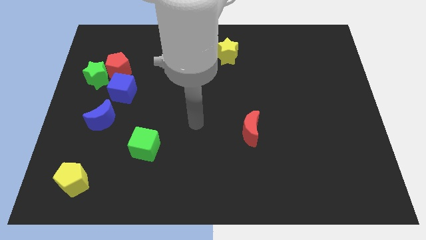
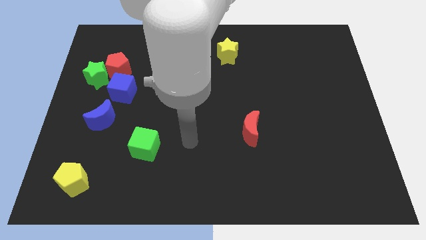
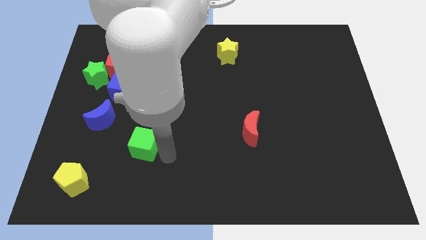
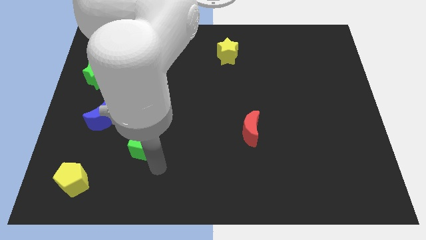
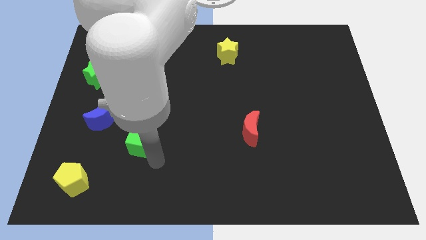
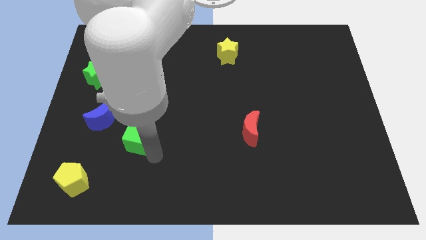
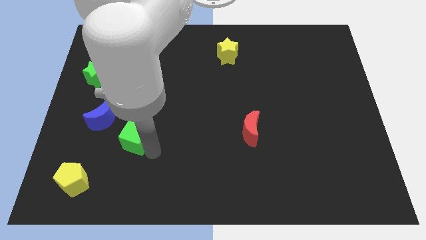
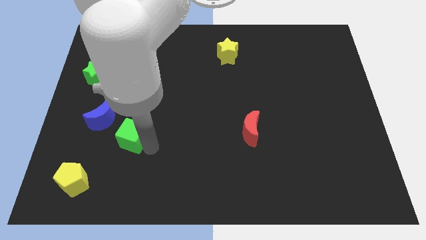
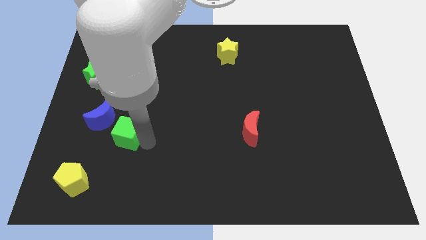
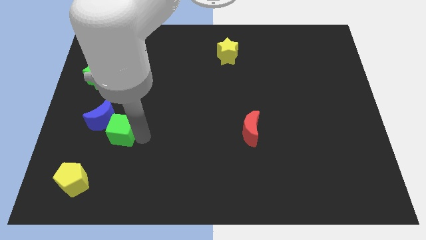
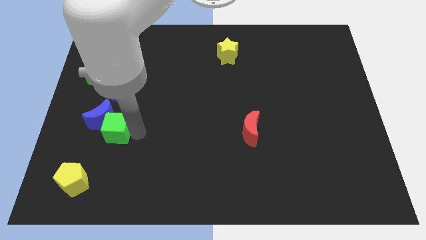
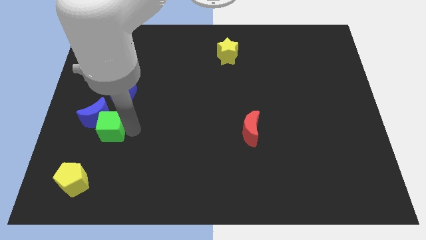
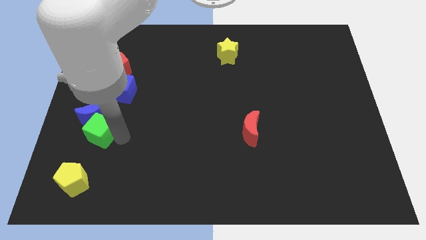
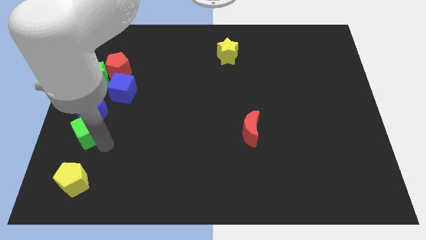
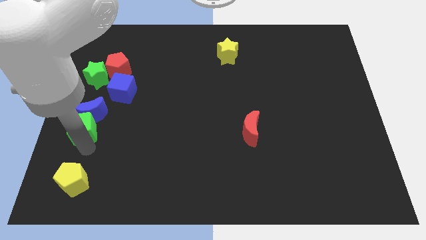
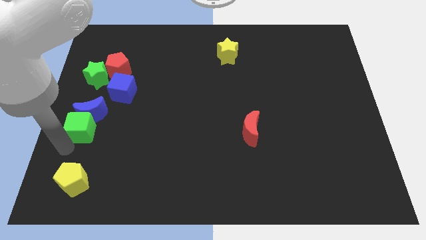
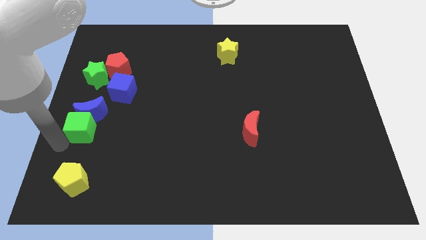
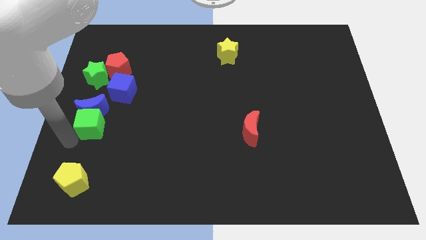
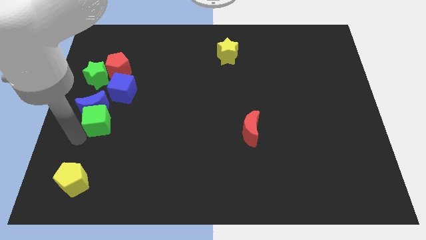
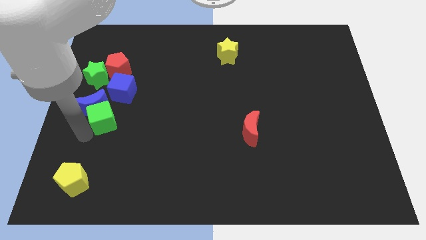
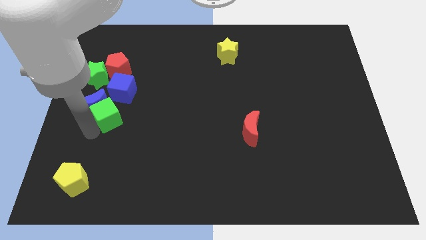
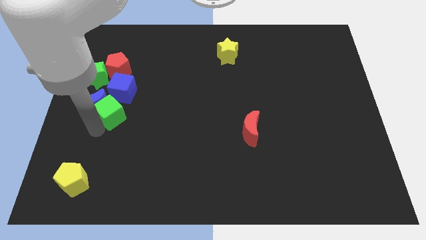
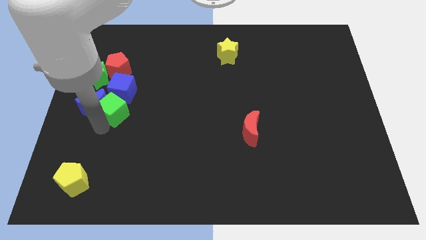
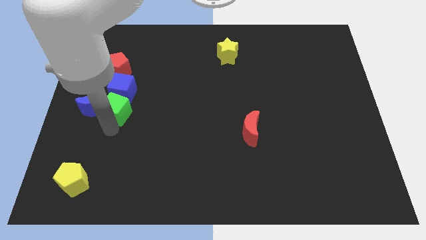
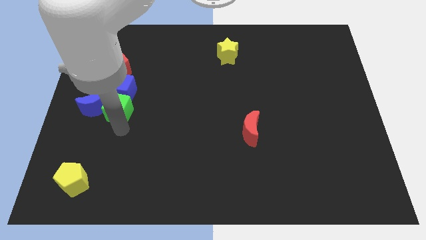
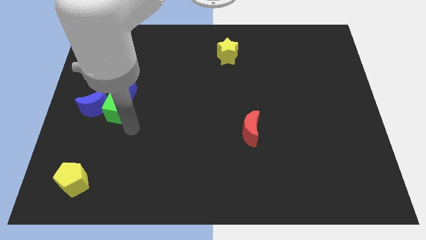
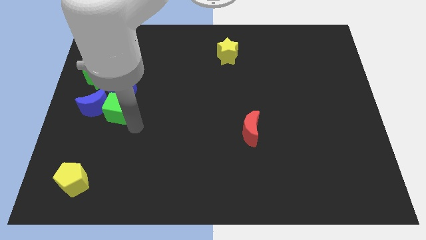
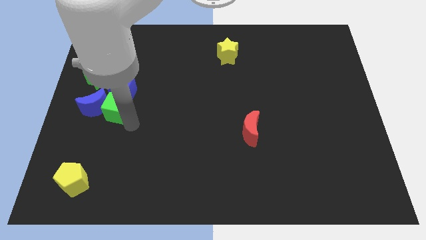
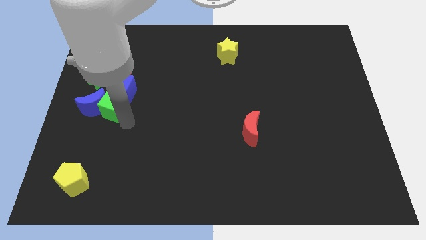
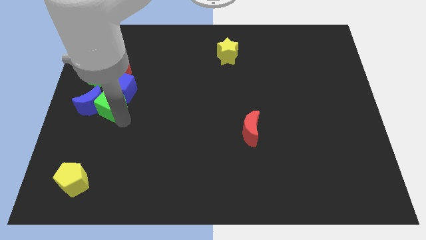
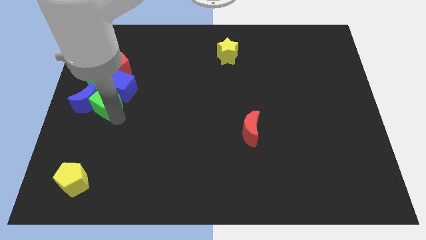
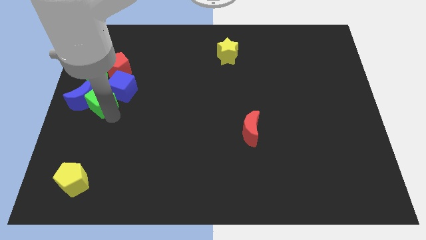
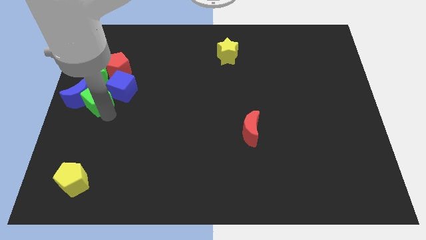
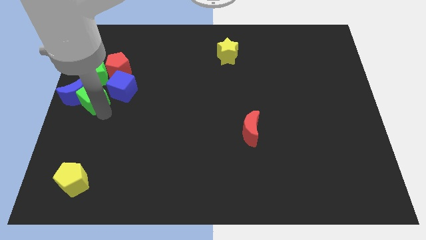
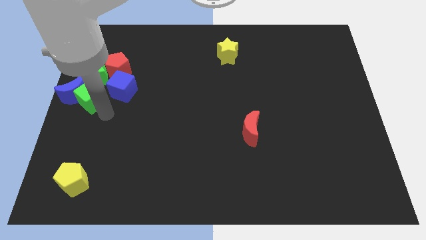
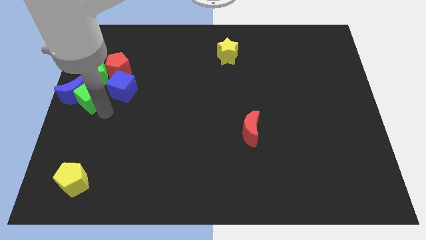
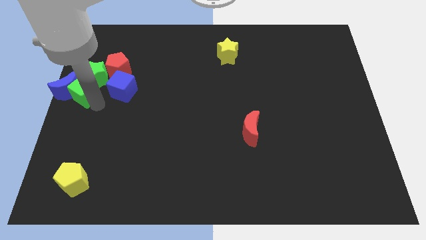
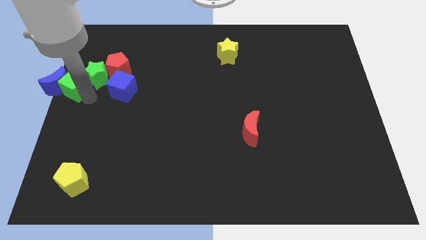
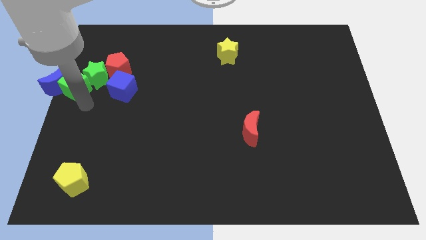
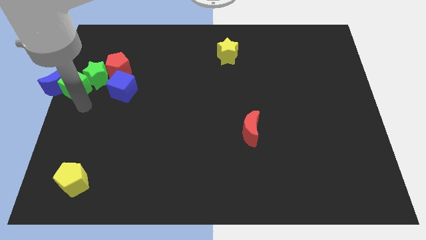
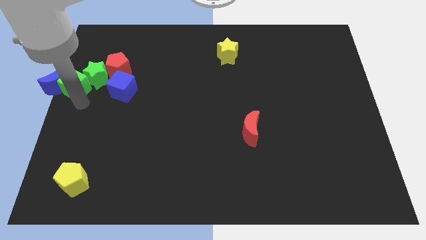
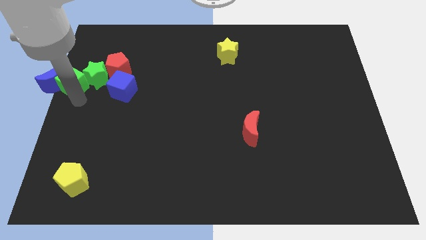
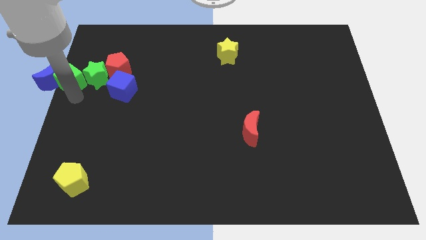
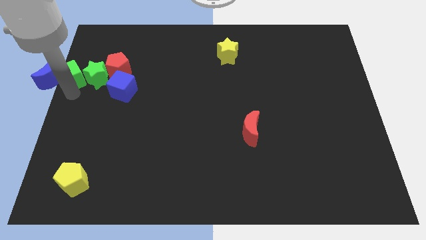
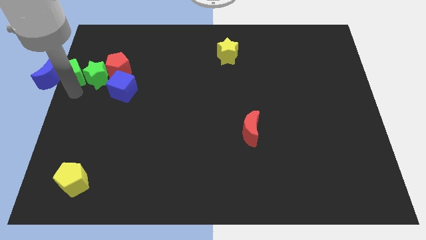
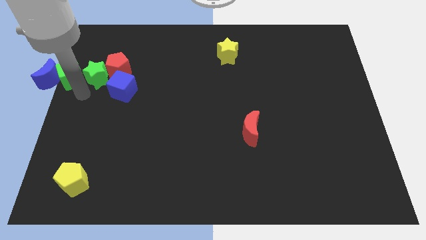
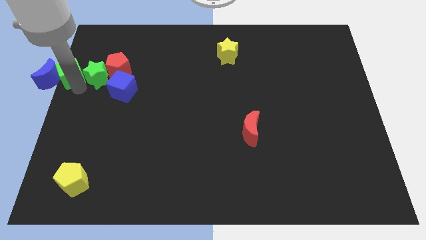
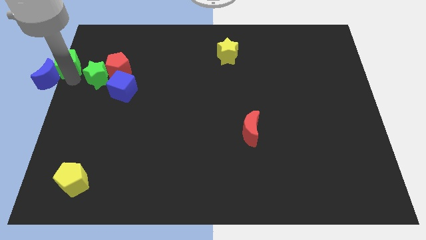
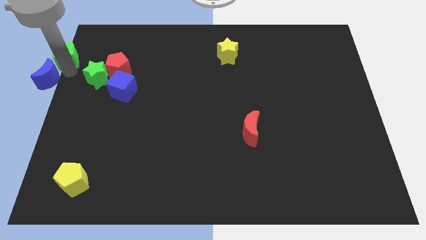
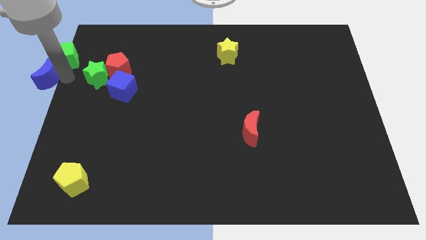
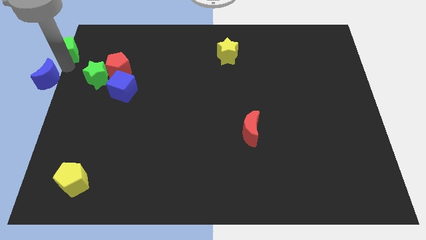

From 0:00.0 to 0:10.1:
put the green cube to the top left

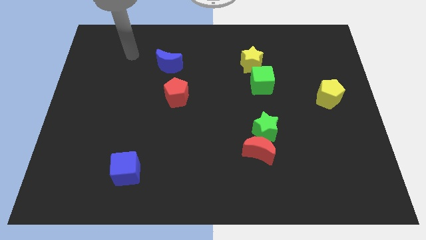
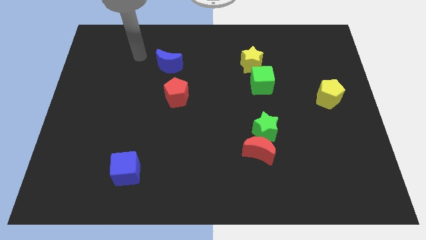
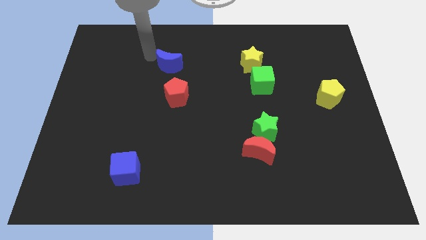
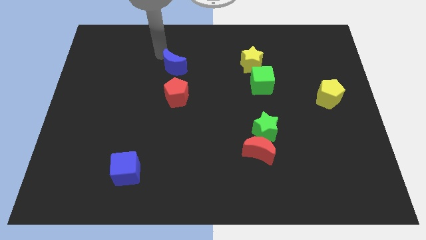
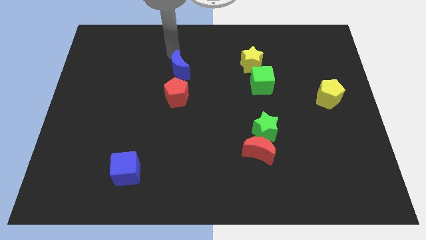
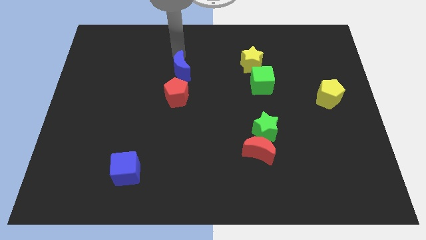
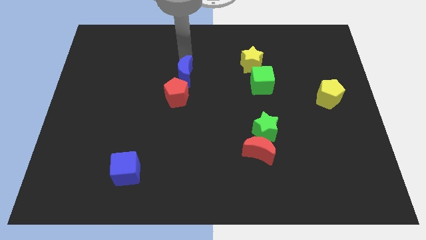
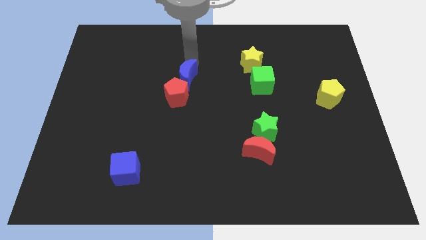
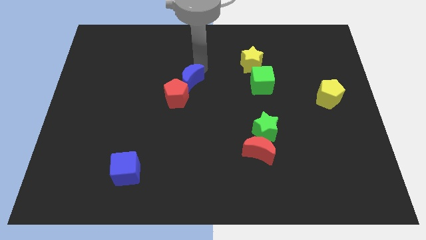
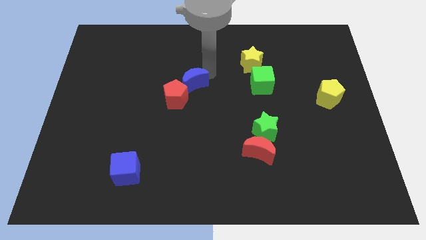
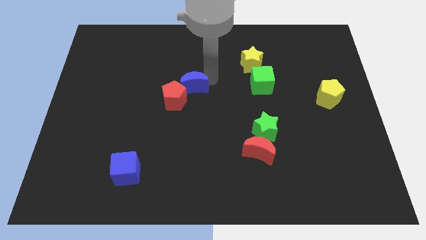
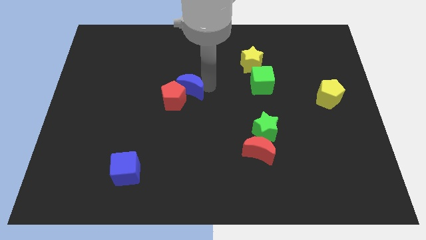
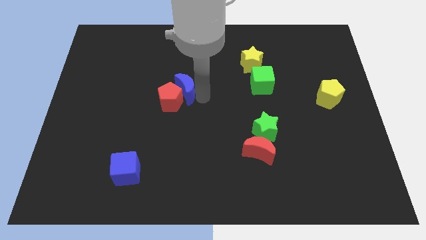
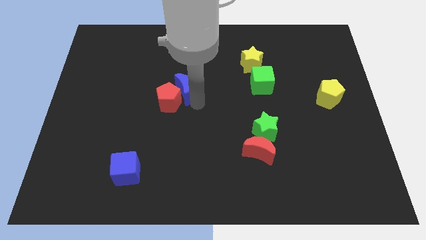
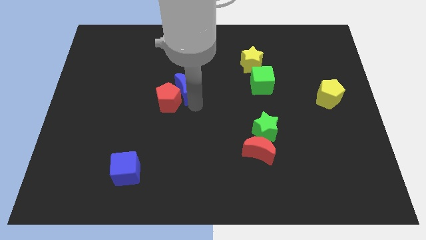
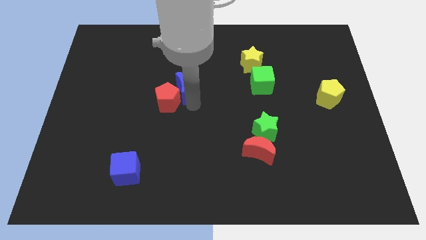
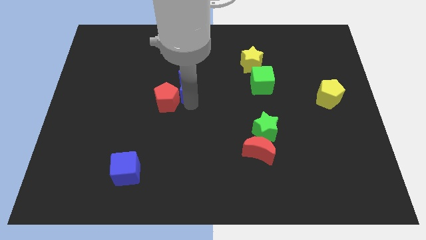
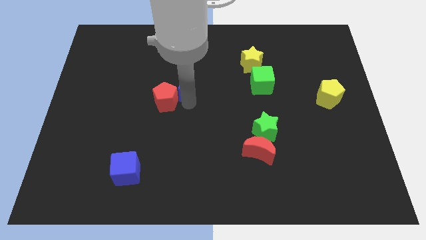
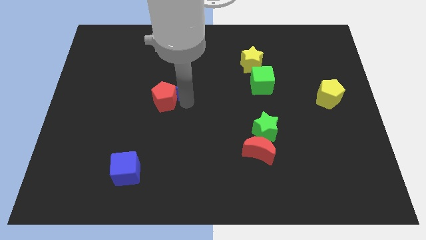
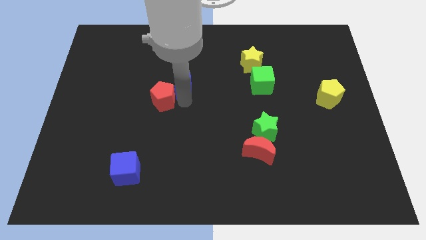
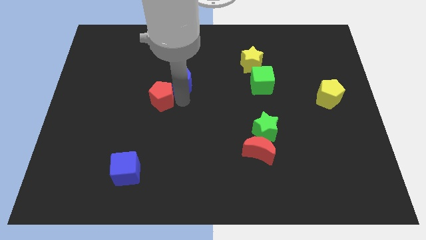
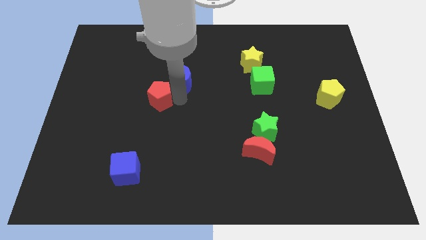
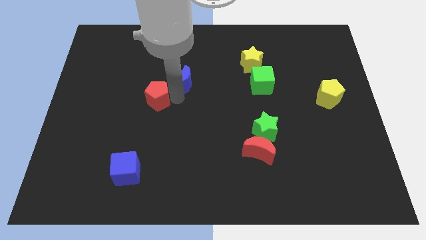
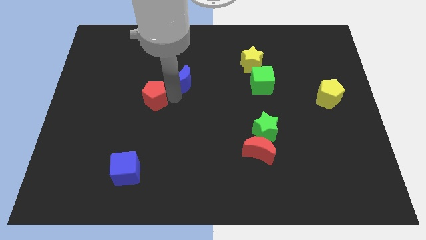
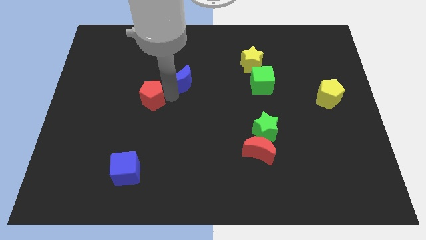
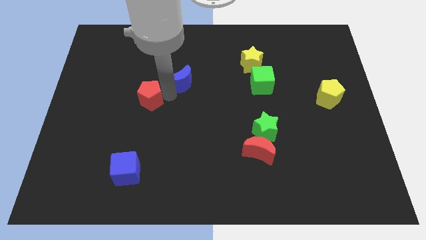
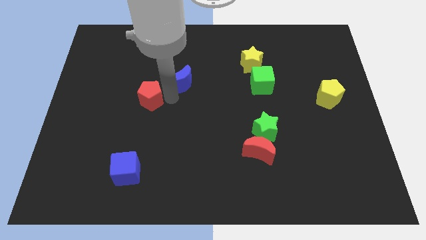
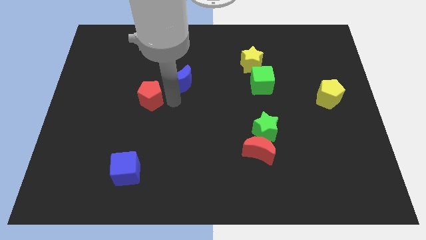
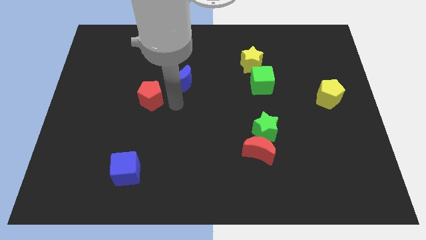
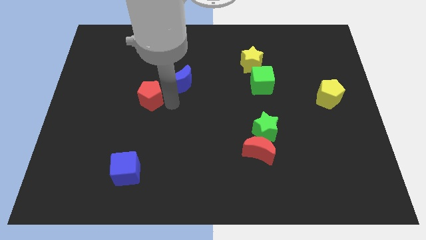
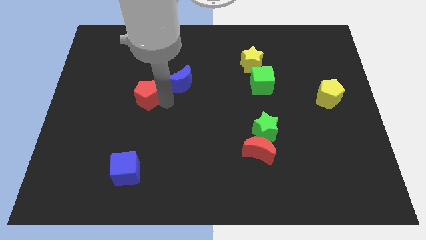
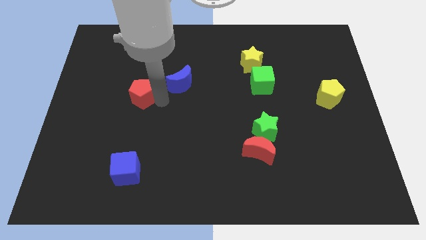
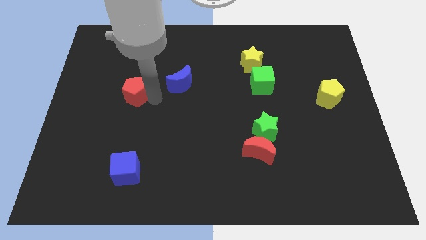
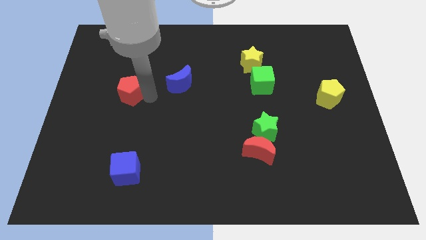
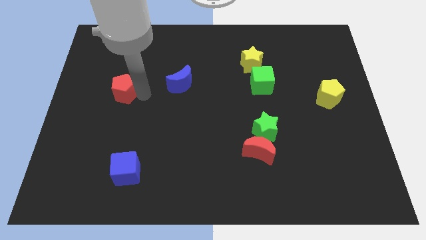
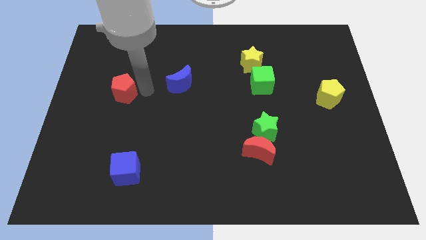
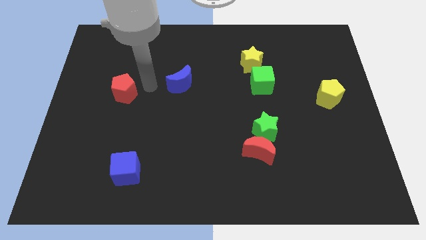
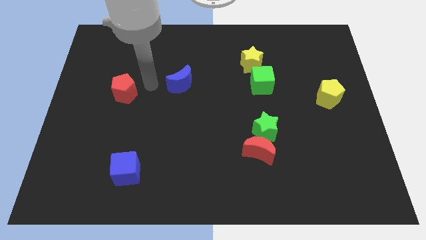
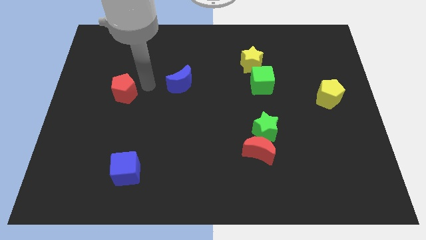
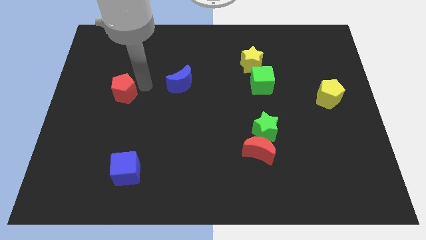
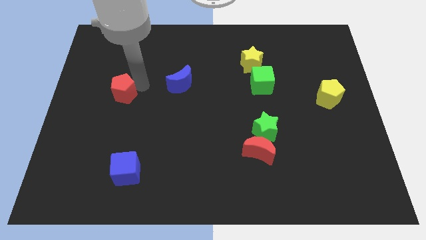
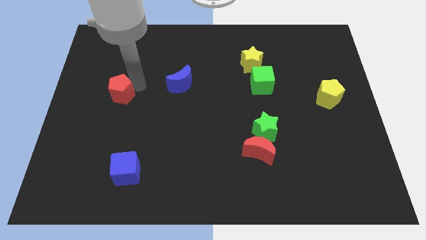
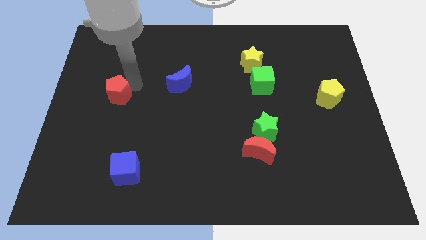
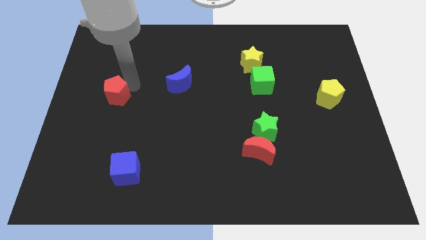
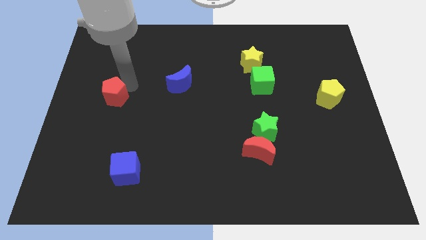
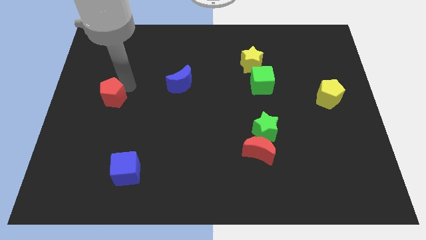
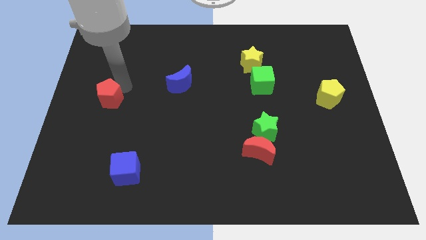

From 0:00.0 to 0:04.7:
push the red pentagon to the center left
